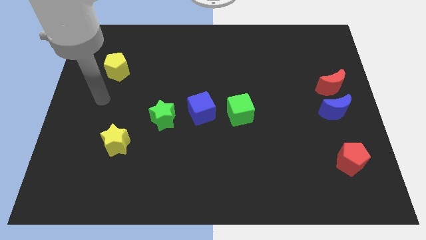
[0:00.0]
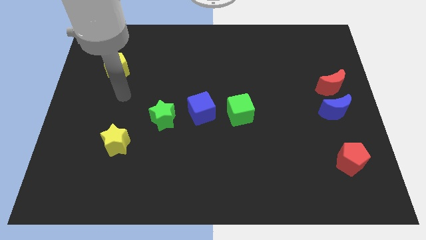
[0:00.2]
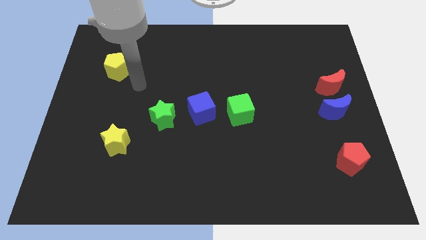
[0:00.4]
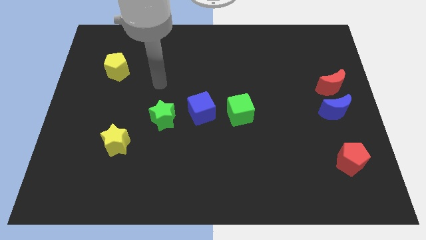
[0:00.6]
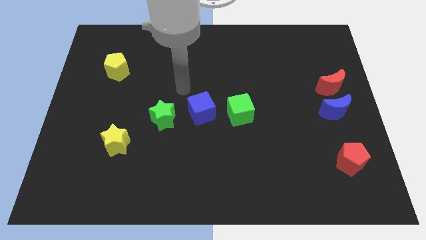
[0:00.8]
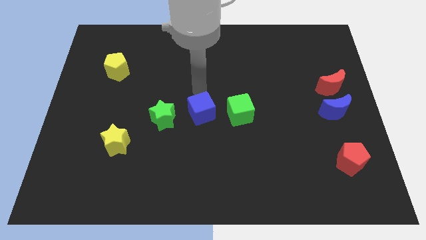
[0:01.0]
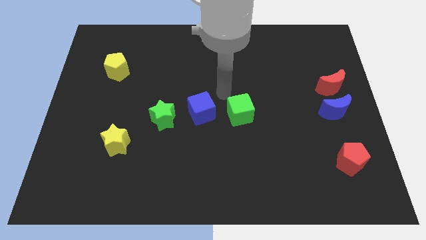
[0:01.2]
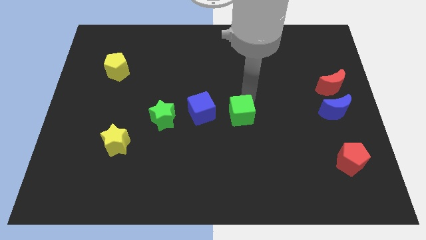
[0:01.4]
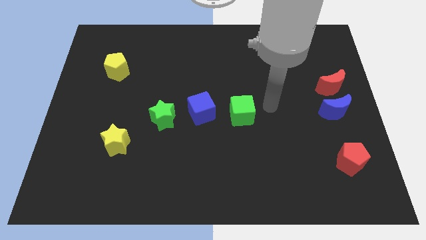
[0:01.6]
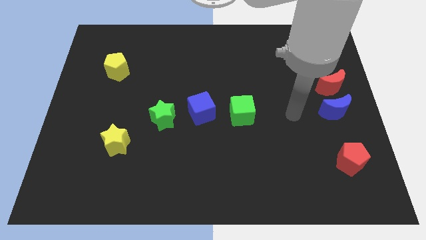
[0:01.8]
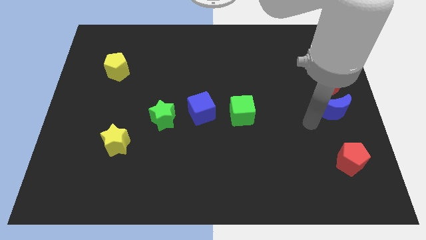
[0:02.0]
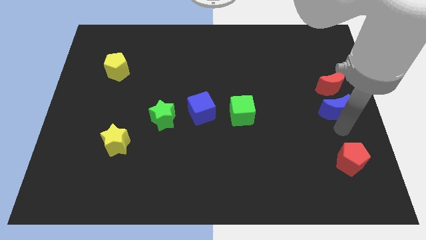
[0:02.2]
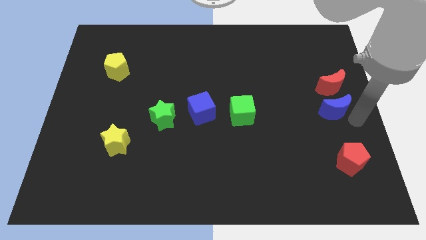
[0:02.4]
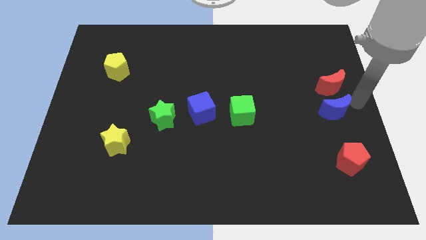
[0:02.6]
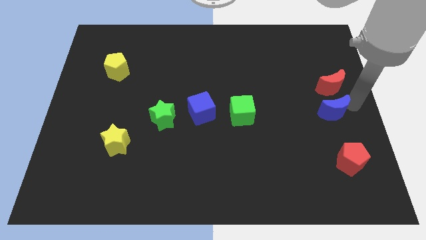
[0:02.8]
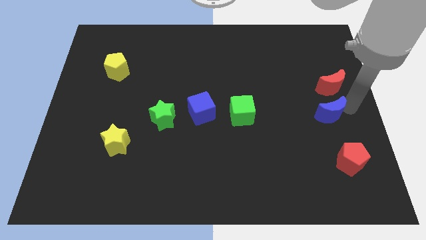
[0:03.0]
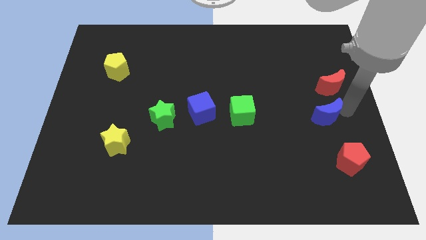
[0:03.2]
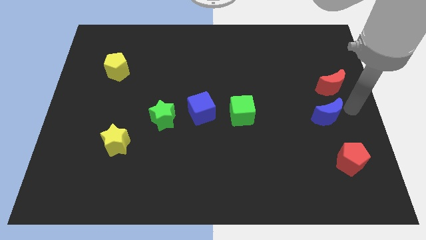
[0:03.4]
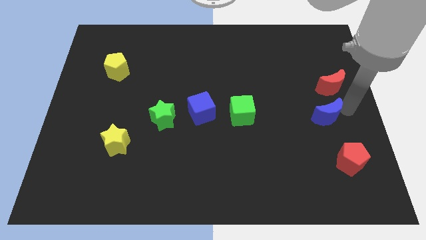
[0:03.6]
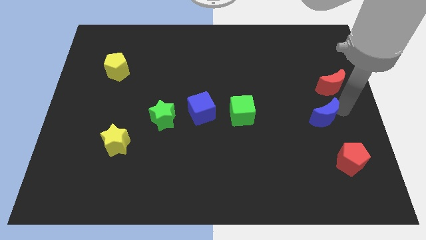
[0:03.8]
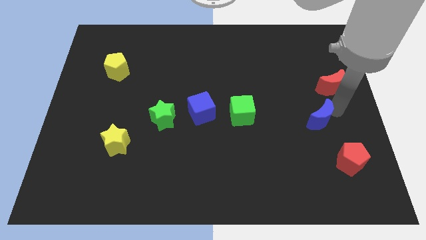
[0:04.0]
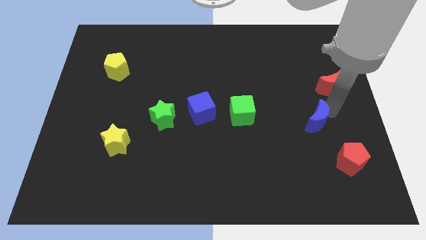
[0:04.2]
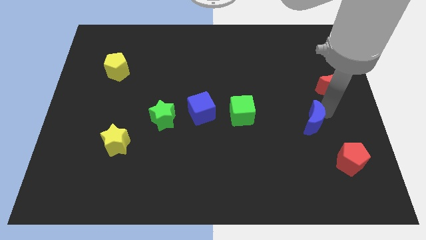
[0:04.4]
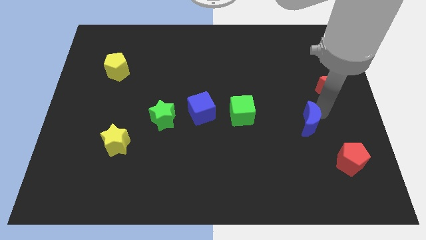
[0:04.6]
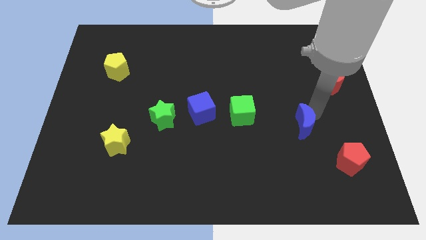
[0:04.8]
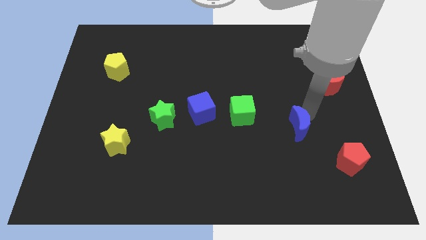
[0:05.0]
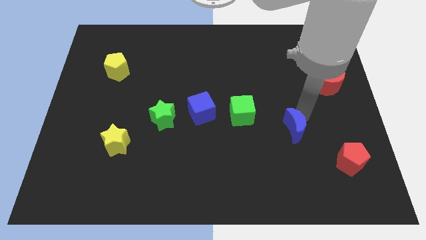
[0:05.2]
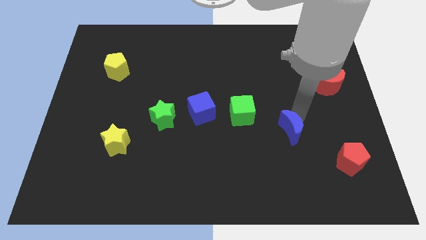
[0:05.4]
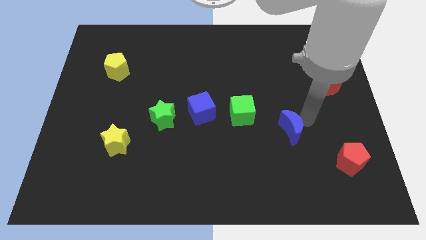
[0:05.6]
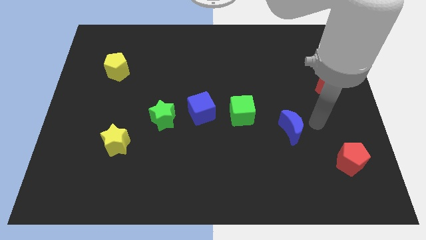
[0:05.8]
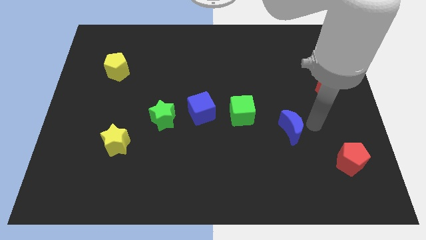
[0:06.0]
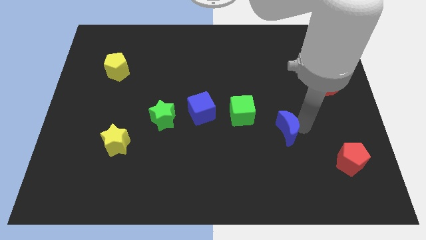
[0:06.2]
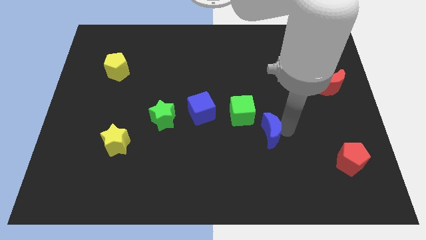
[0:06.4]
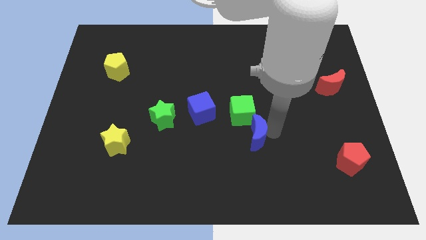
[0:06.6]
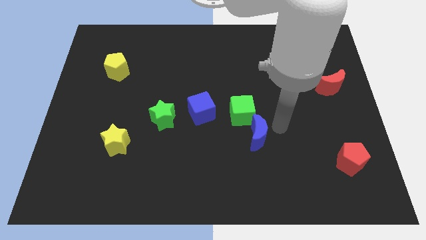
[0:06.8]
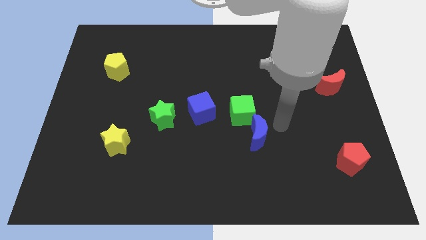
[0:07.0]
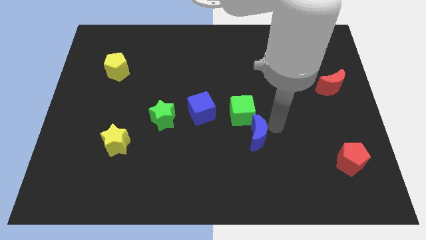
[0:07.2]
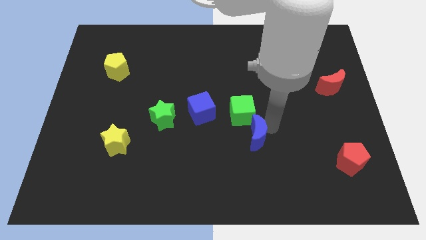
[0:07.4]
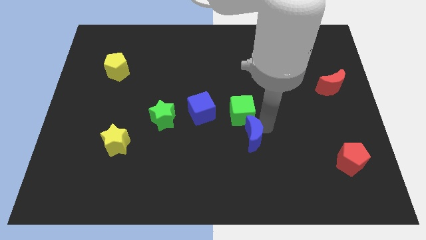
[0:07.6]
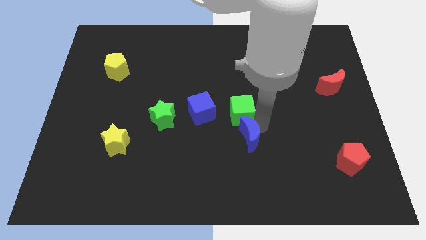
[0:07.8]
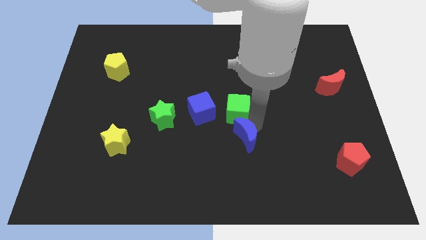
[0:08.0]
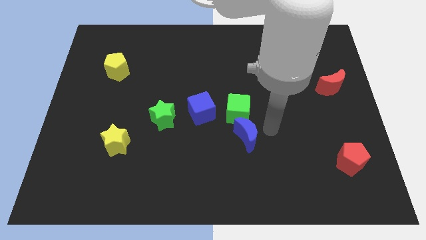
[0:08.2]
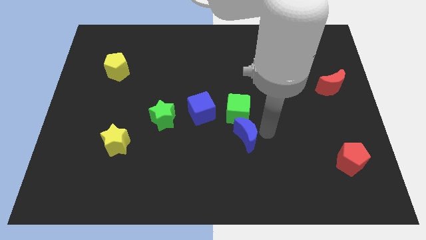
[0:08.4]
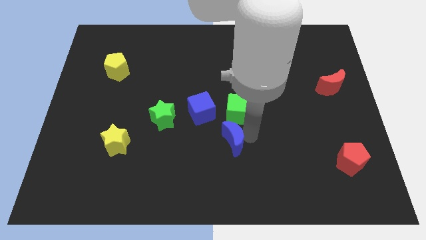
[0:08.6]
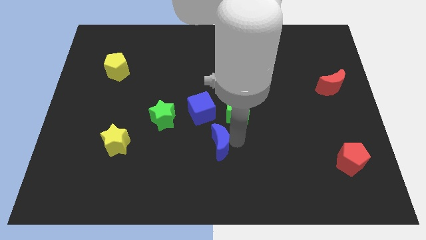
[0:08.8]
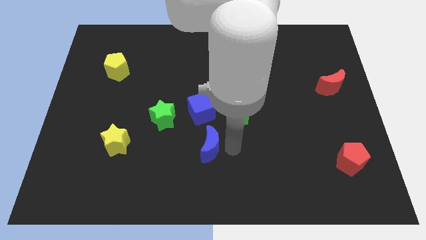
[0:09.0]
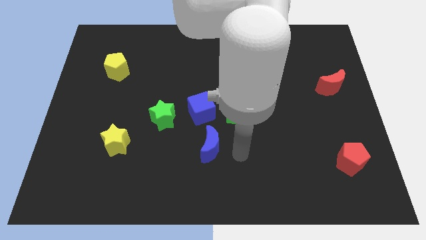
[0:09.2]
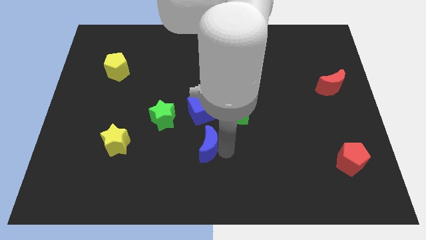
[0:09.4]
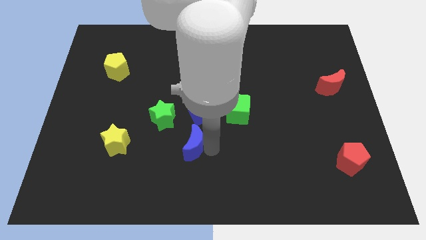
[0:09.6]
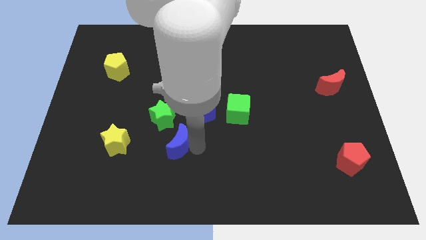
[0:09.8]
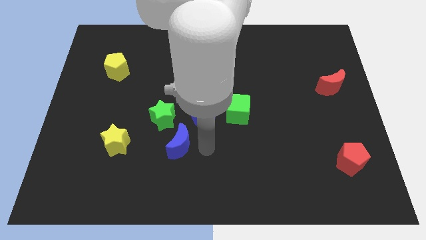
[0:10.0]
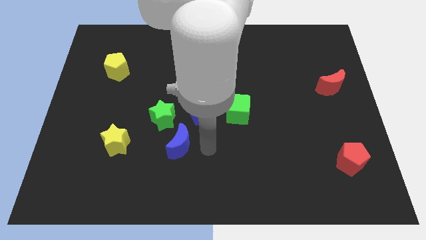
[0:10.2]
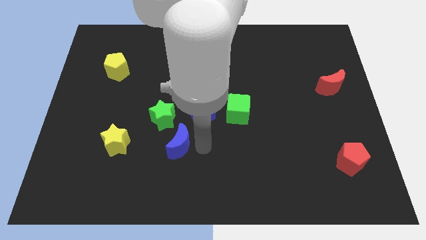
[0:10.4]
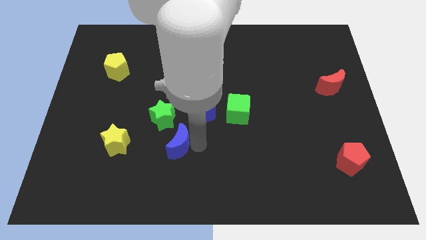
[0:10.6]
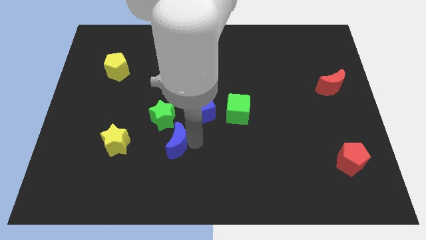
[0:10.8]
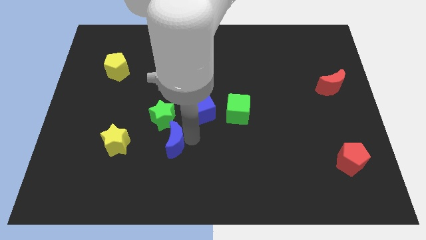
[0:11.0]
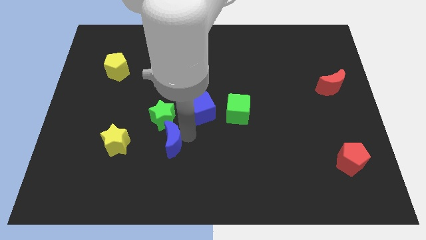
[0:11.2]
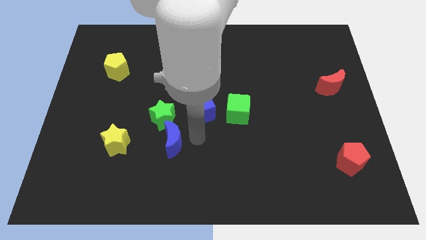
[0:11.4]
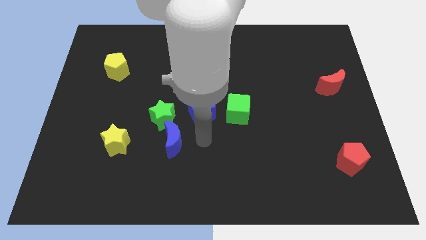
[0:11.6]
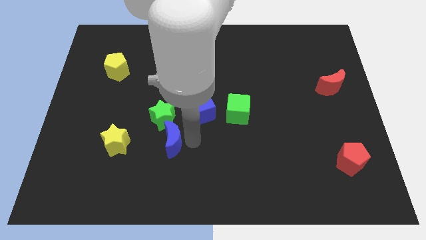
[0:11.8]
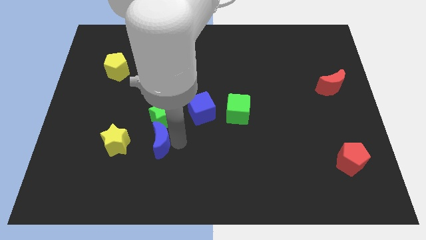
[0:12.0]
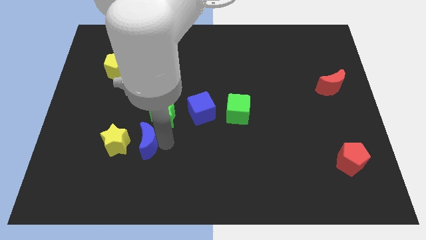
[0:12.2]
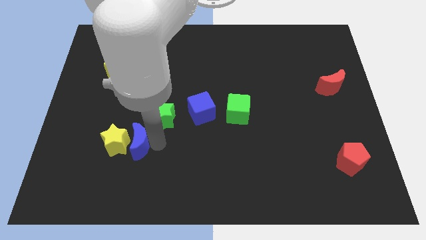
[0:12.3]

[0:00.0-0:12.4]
move the blue moon close to the yellow star

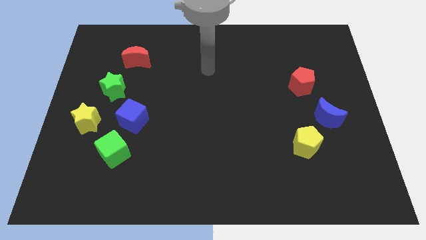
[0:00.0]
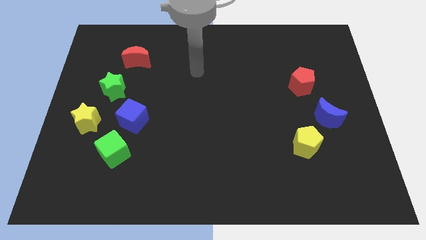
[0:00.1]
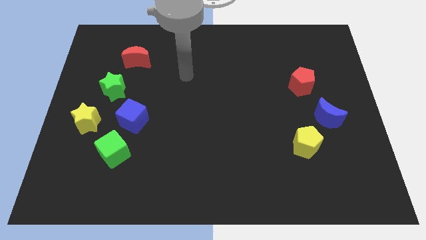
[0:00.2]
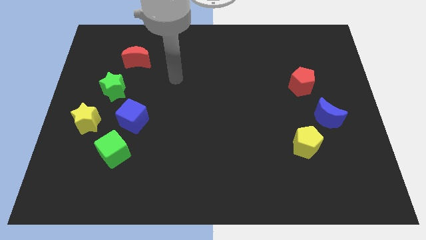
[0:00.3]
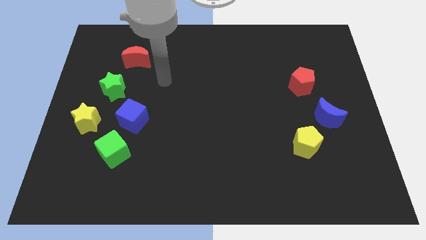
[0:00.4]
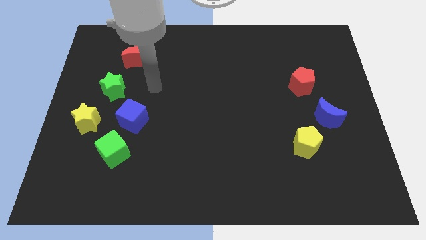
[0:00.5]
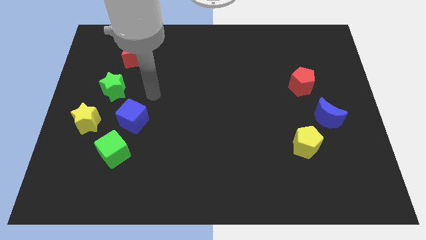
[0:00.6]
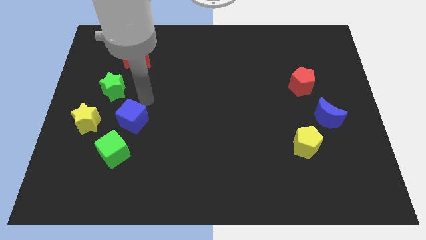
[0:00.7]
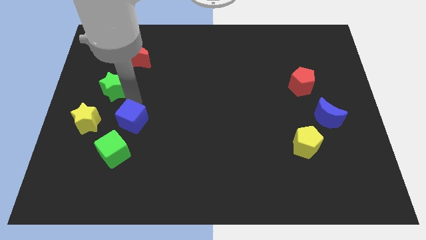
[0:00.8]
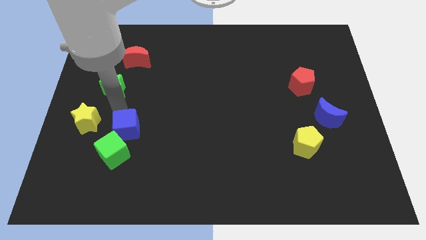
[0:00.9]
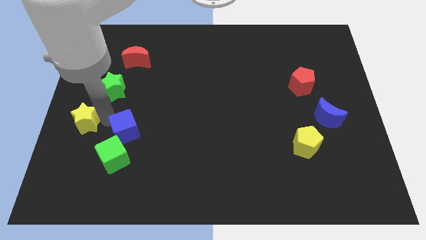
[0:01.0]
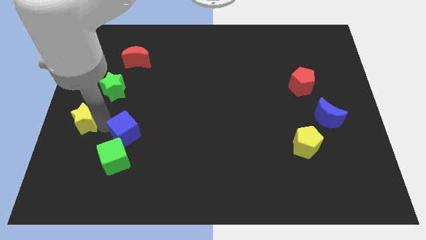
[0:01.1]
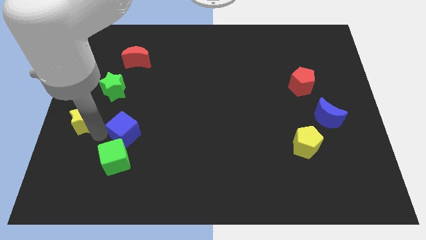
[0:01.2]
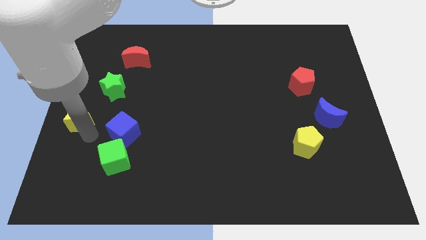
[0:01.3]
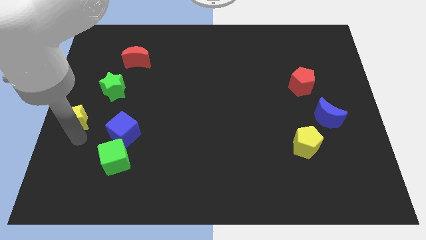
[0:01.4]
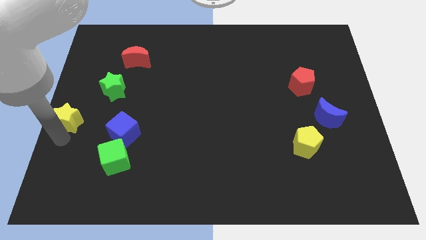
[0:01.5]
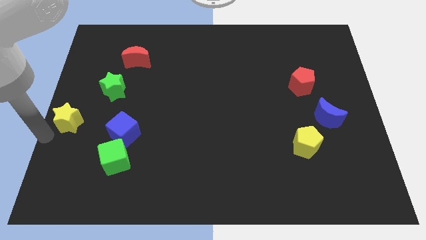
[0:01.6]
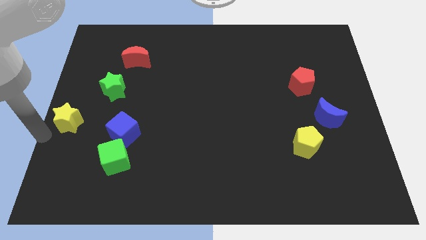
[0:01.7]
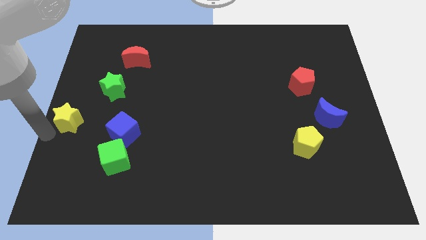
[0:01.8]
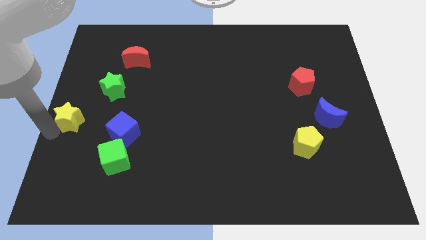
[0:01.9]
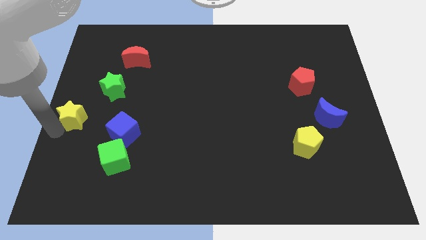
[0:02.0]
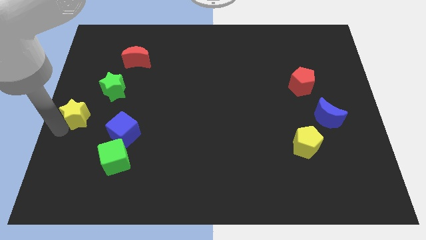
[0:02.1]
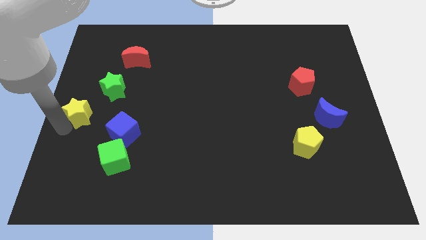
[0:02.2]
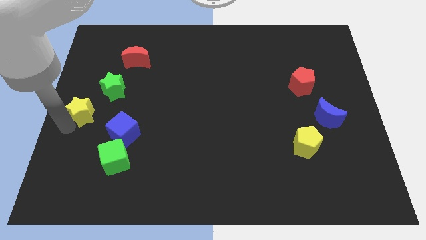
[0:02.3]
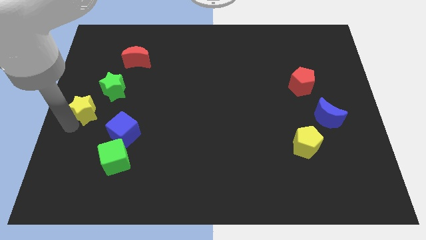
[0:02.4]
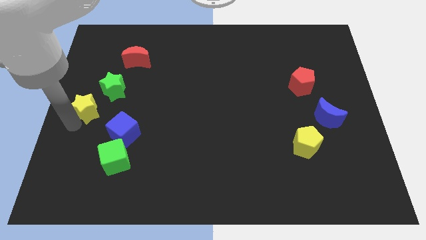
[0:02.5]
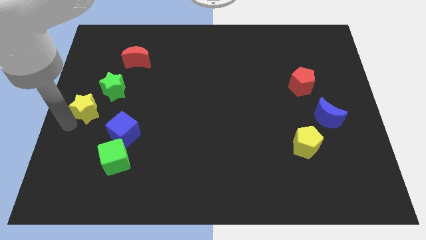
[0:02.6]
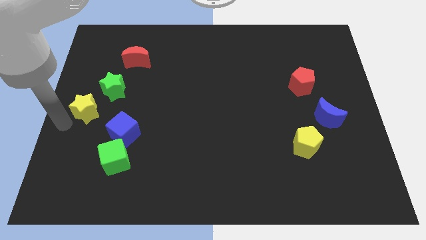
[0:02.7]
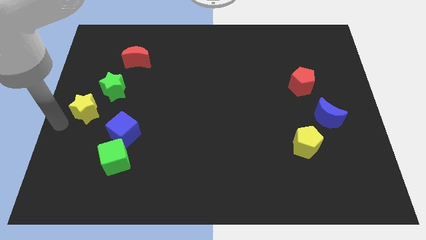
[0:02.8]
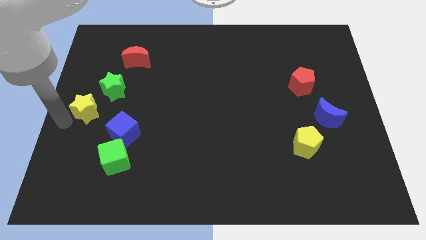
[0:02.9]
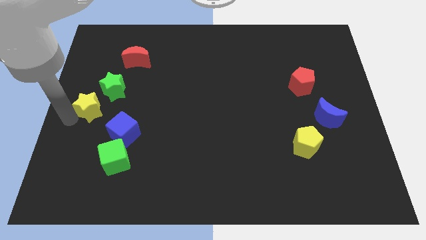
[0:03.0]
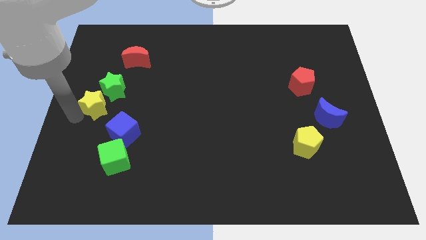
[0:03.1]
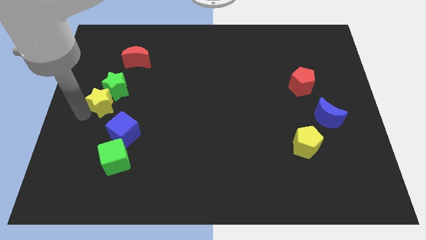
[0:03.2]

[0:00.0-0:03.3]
move the yellow star close to the green star
